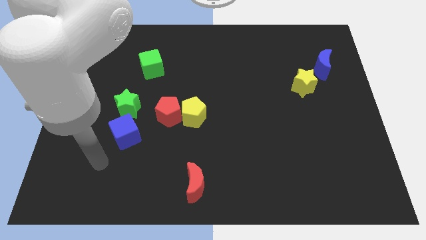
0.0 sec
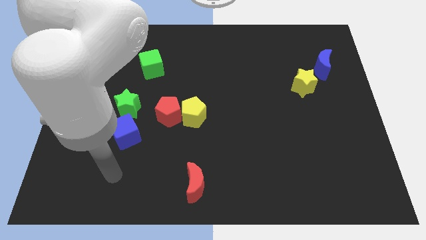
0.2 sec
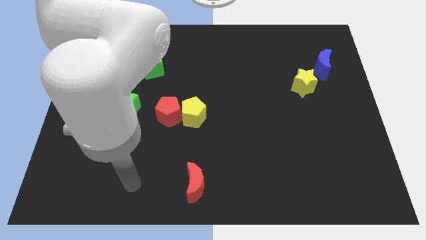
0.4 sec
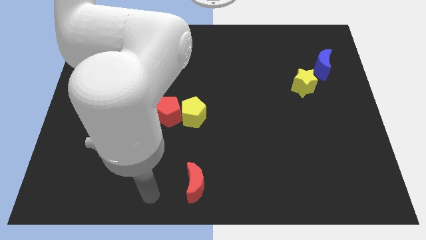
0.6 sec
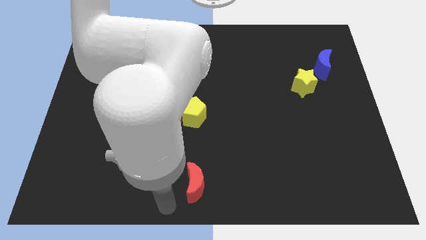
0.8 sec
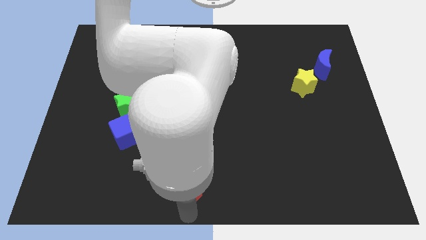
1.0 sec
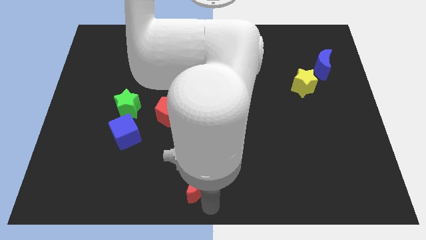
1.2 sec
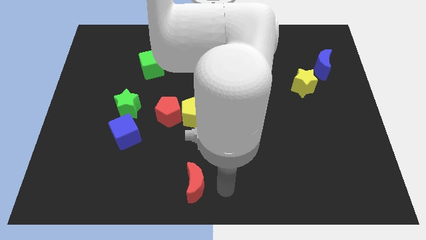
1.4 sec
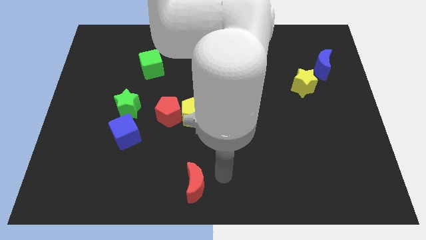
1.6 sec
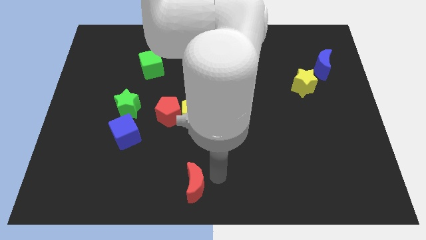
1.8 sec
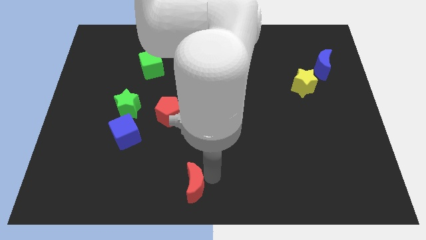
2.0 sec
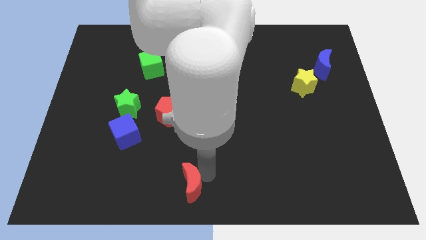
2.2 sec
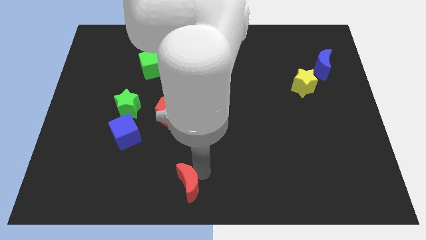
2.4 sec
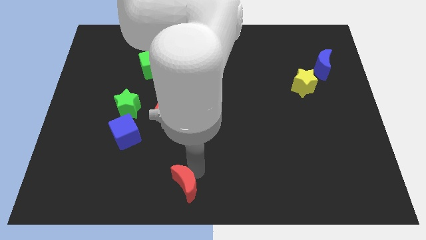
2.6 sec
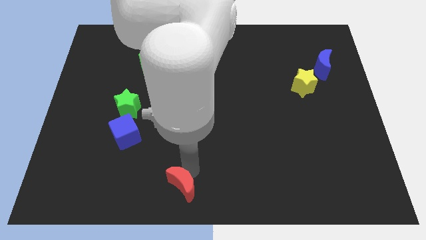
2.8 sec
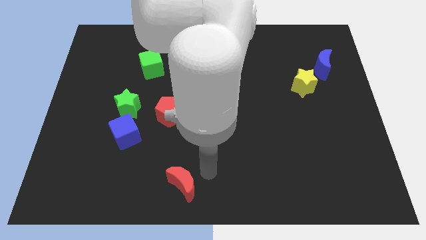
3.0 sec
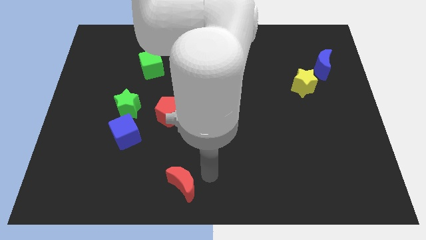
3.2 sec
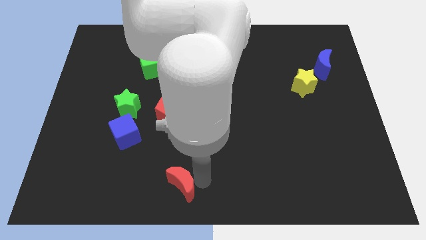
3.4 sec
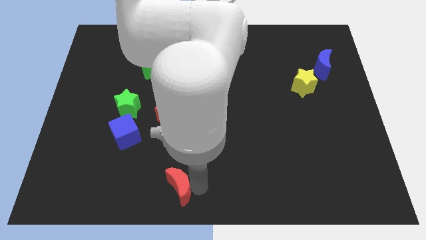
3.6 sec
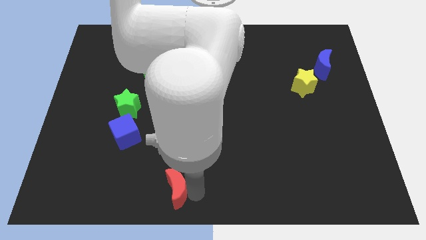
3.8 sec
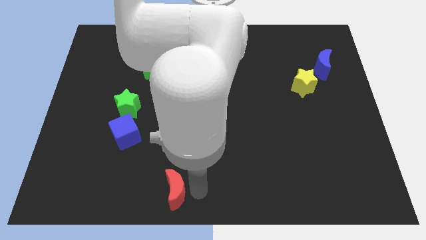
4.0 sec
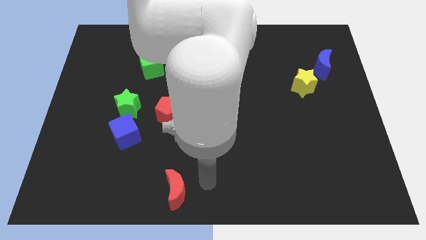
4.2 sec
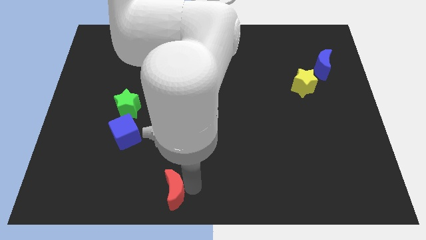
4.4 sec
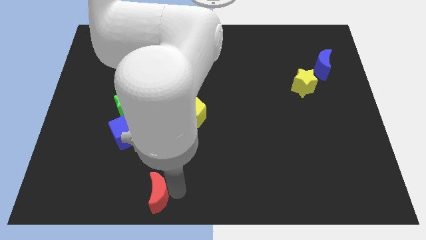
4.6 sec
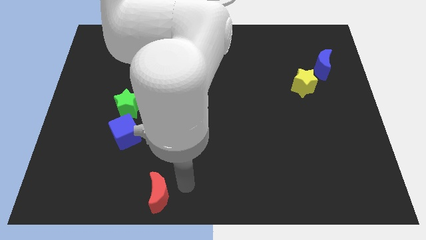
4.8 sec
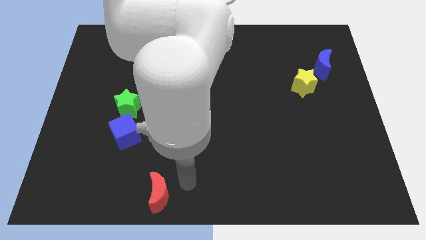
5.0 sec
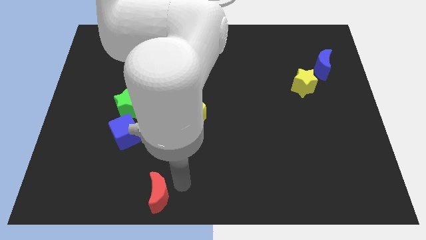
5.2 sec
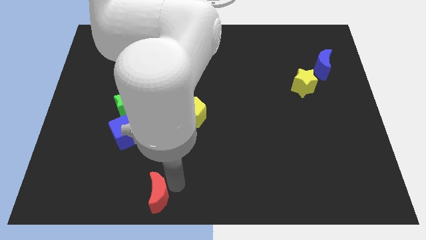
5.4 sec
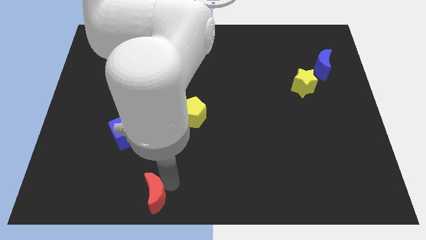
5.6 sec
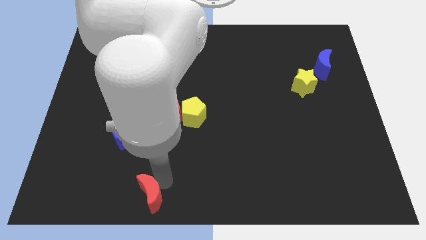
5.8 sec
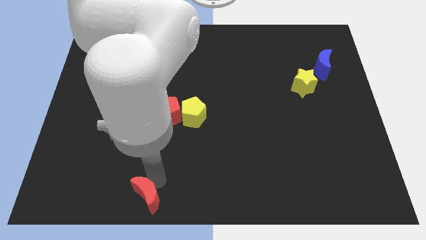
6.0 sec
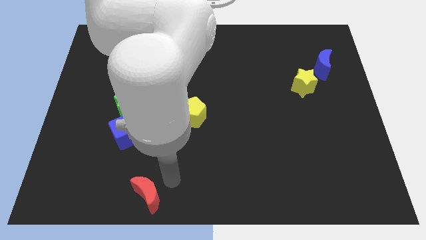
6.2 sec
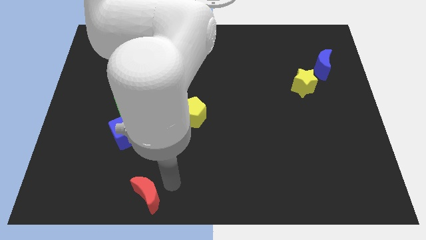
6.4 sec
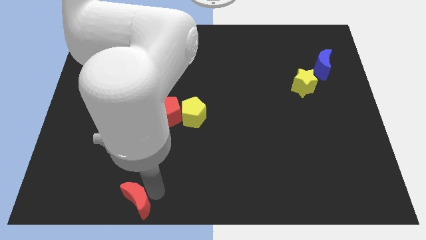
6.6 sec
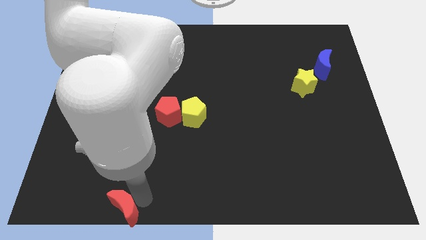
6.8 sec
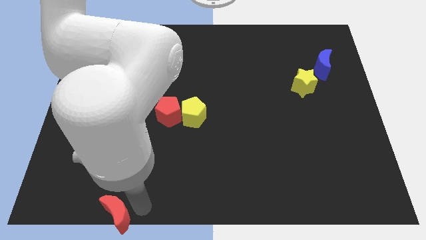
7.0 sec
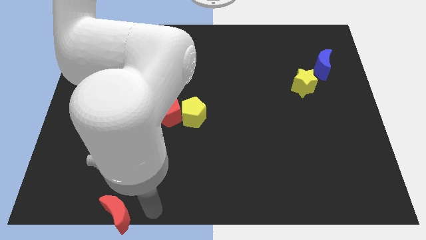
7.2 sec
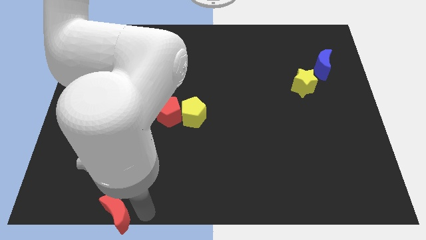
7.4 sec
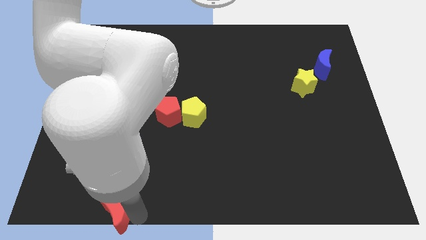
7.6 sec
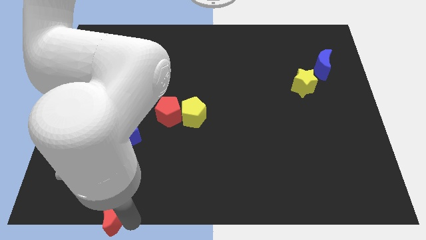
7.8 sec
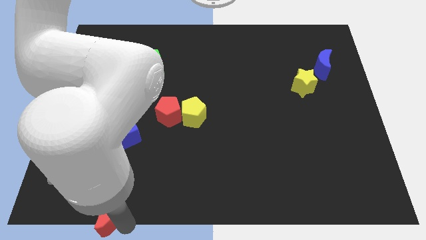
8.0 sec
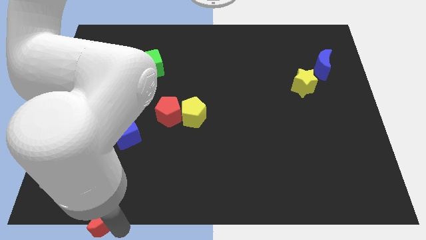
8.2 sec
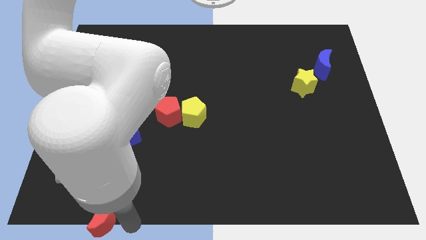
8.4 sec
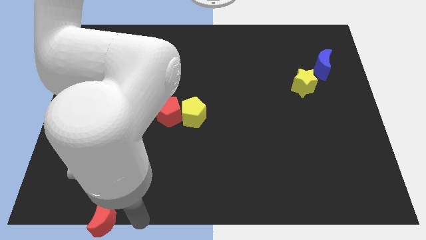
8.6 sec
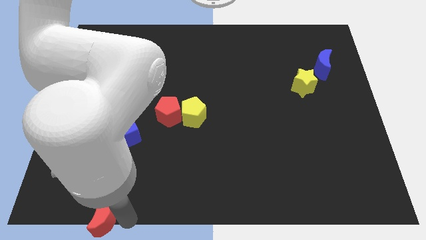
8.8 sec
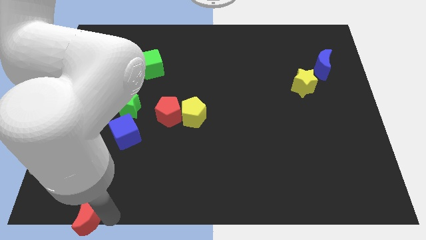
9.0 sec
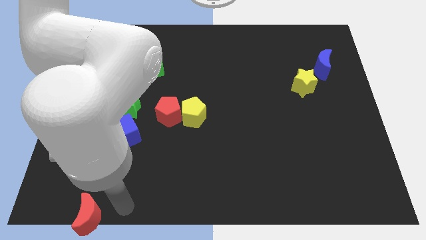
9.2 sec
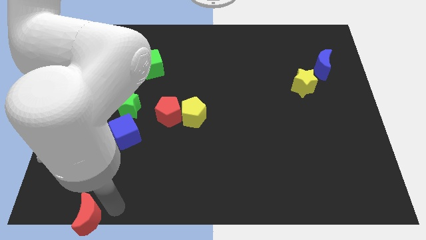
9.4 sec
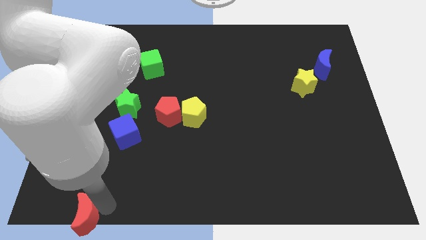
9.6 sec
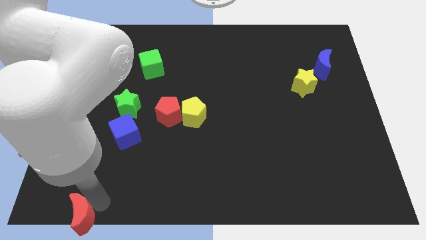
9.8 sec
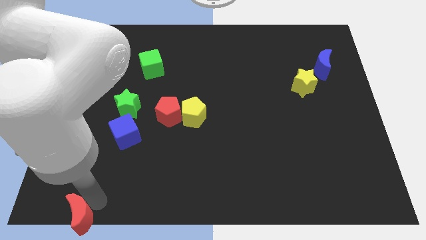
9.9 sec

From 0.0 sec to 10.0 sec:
put the red moon to the bottom left corner

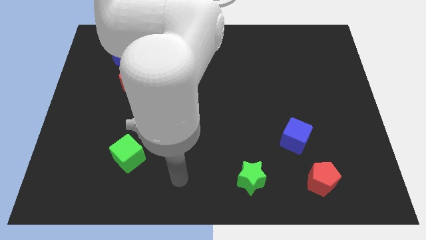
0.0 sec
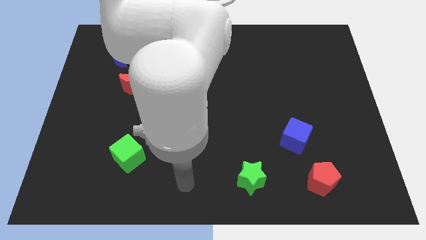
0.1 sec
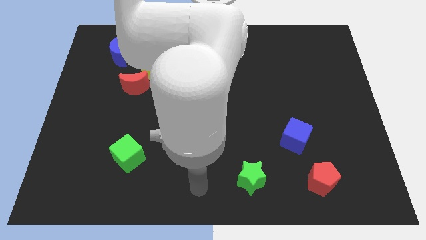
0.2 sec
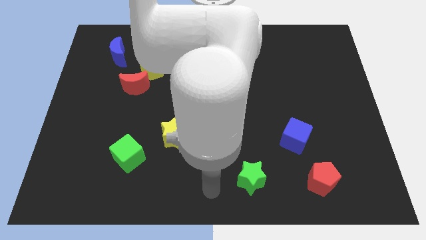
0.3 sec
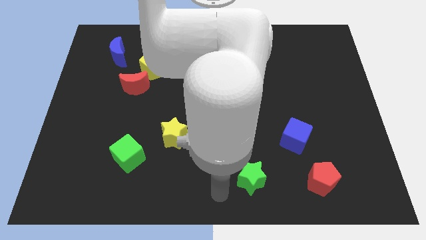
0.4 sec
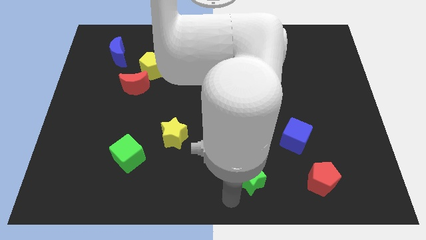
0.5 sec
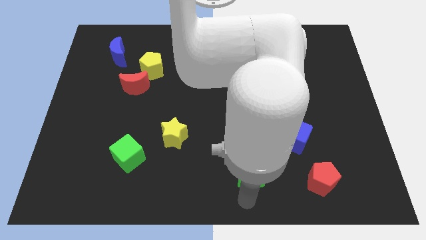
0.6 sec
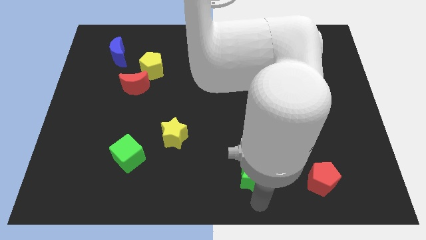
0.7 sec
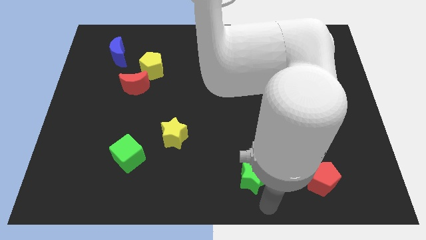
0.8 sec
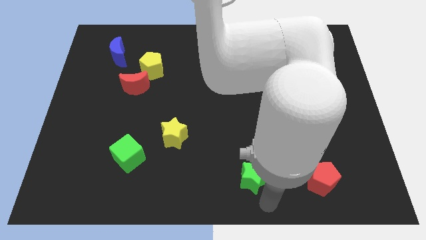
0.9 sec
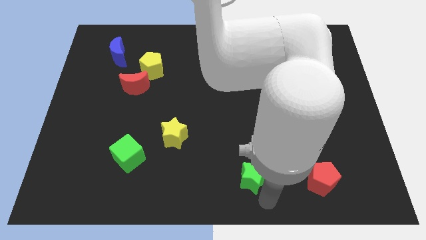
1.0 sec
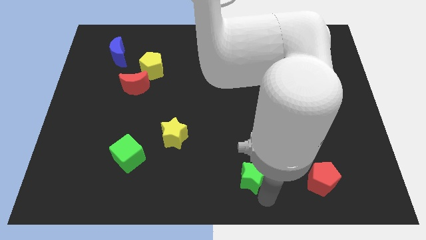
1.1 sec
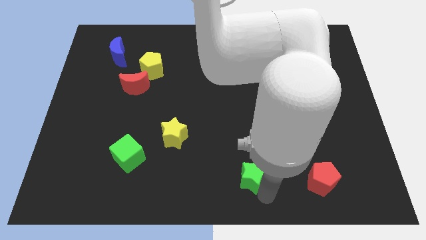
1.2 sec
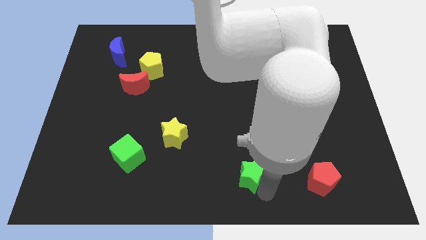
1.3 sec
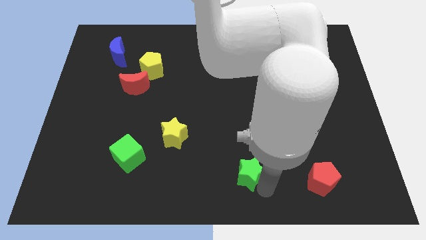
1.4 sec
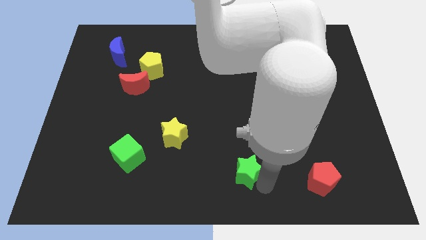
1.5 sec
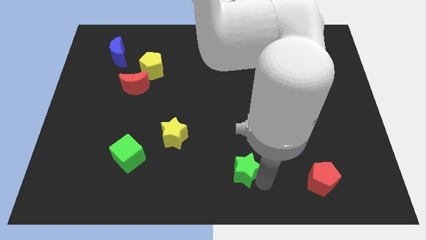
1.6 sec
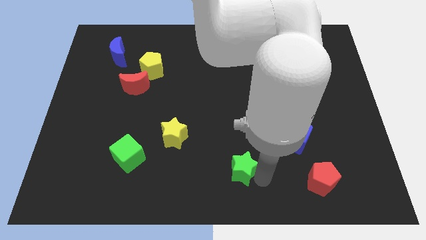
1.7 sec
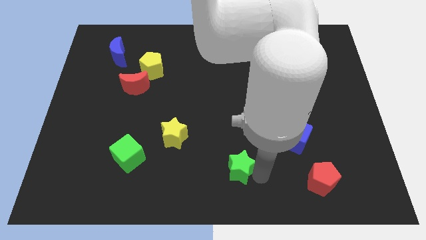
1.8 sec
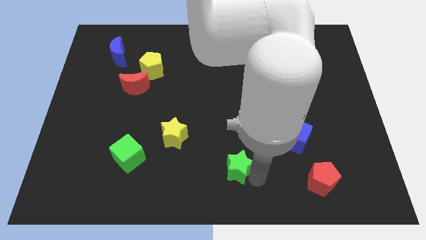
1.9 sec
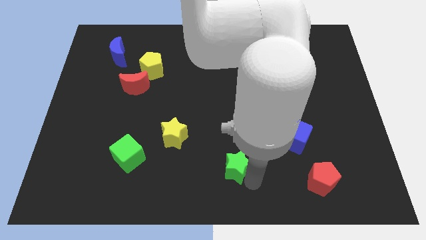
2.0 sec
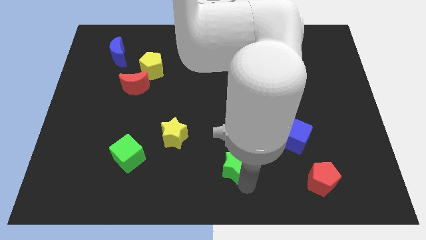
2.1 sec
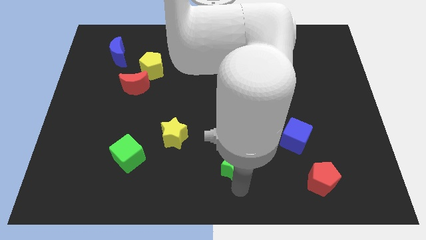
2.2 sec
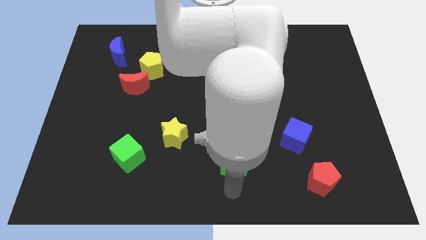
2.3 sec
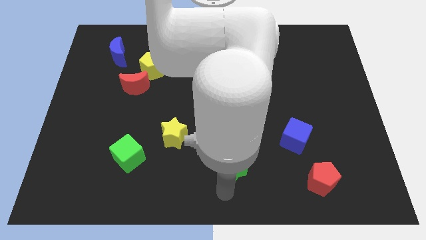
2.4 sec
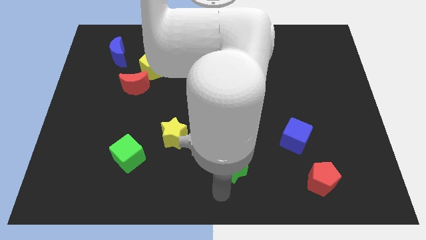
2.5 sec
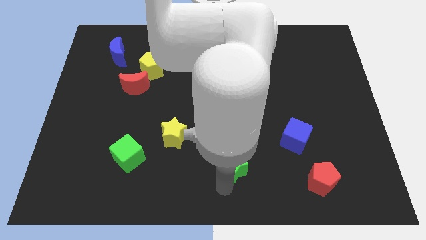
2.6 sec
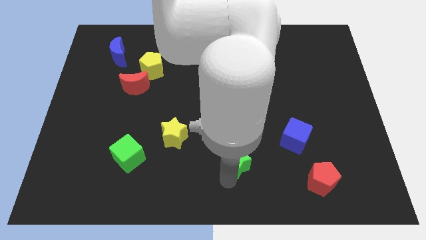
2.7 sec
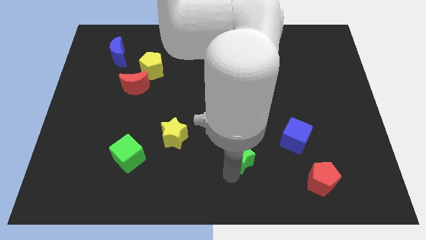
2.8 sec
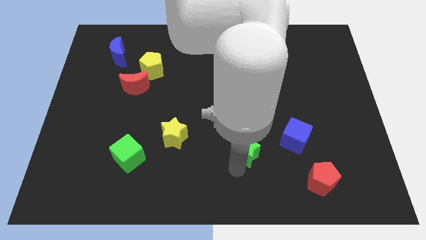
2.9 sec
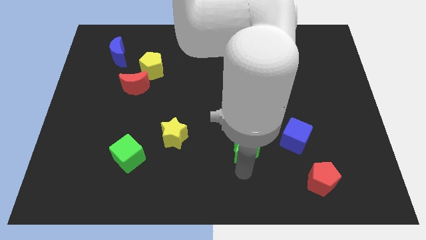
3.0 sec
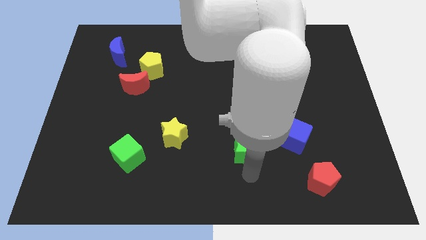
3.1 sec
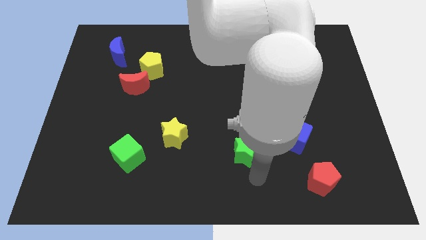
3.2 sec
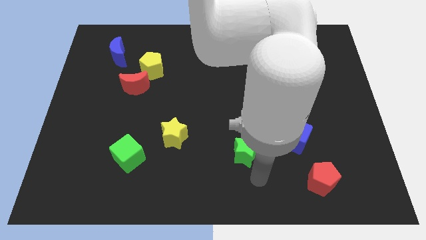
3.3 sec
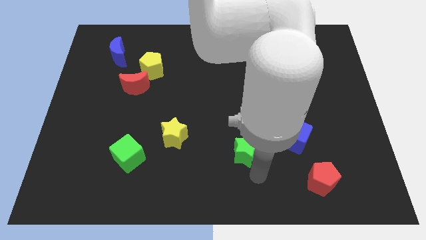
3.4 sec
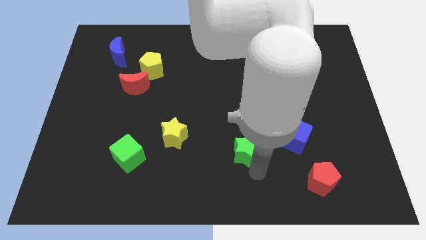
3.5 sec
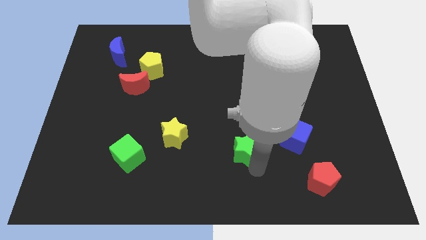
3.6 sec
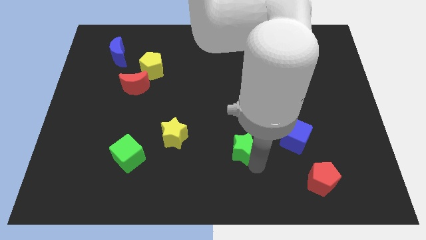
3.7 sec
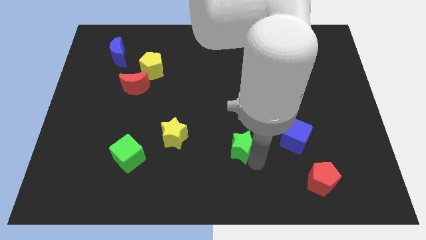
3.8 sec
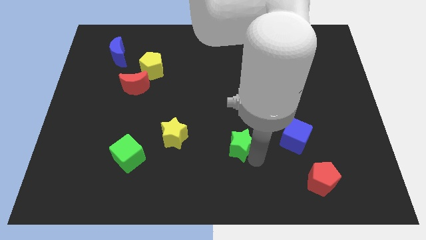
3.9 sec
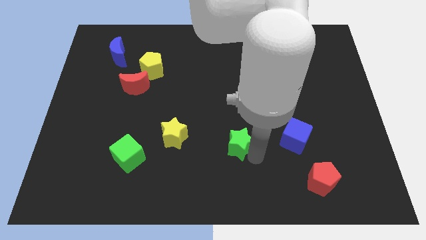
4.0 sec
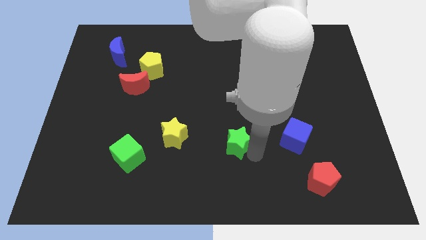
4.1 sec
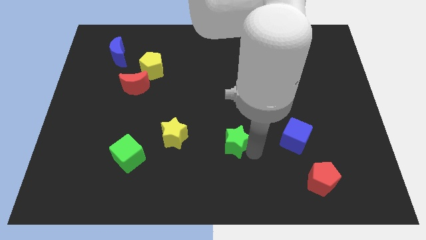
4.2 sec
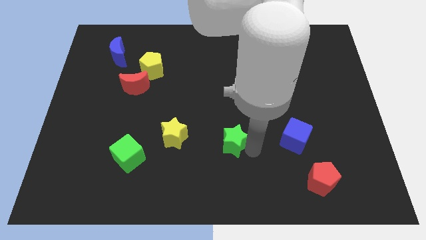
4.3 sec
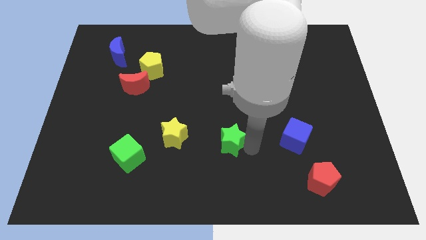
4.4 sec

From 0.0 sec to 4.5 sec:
push the green star to the center of the board
